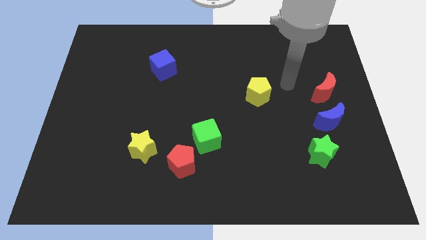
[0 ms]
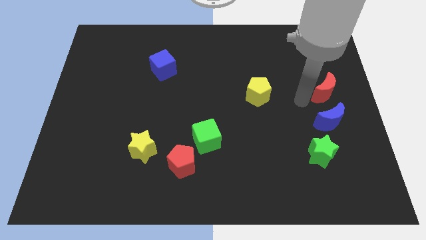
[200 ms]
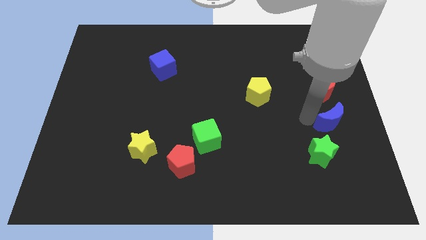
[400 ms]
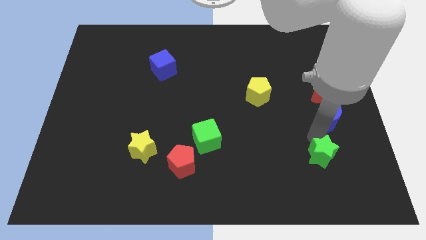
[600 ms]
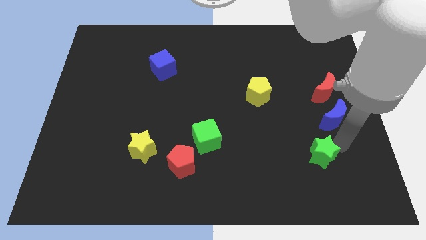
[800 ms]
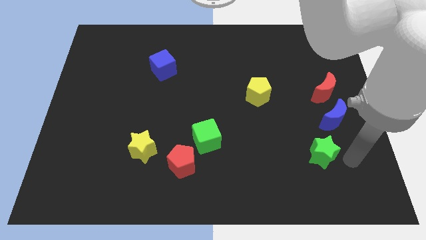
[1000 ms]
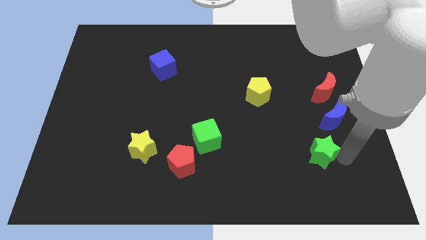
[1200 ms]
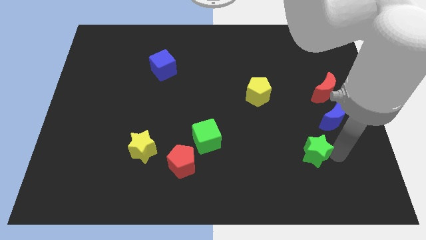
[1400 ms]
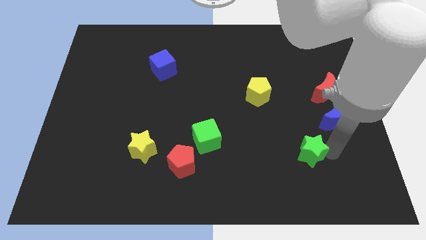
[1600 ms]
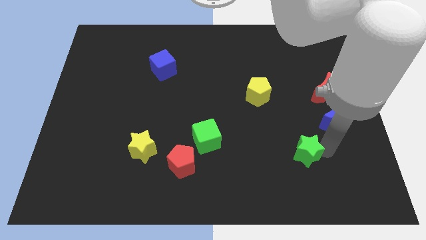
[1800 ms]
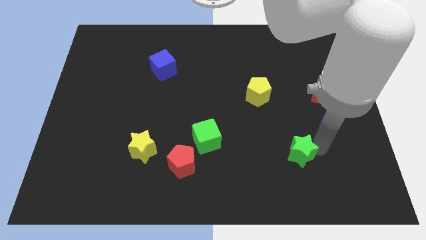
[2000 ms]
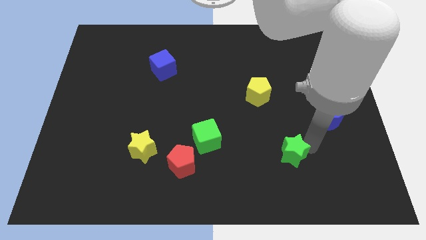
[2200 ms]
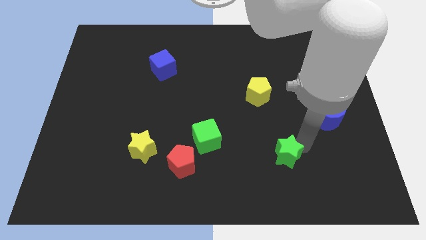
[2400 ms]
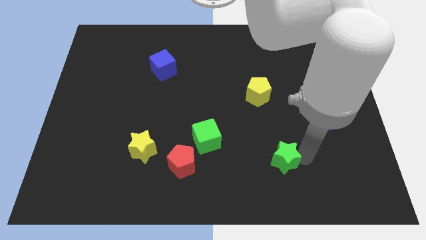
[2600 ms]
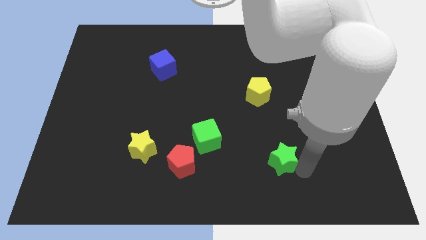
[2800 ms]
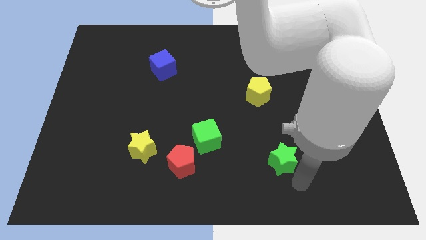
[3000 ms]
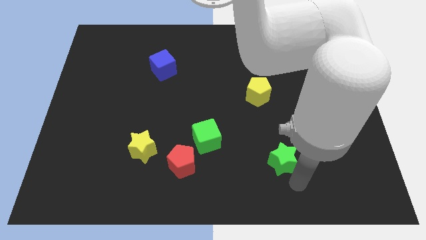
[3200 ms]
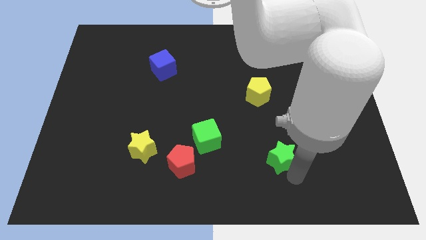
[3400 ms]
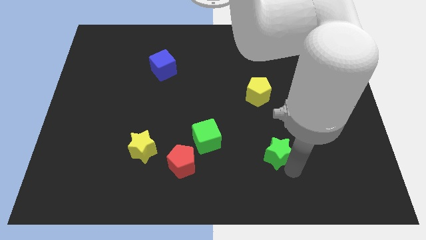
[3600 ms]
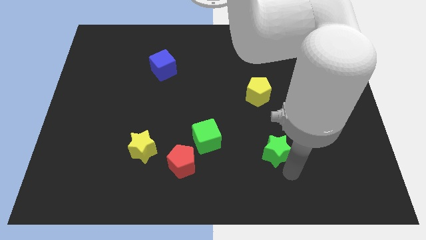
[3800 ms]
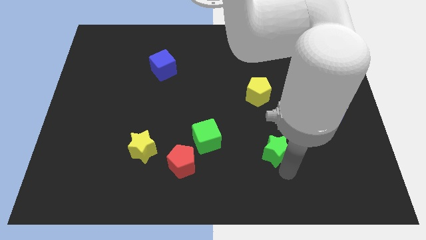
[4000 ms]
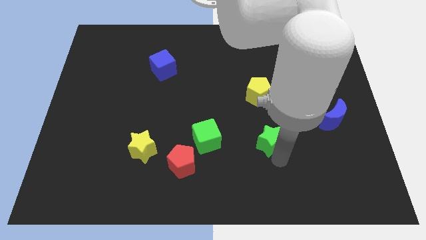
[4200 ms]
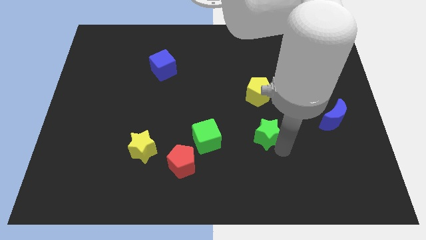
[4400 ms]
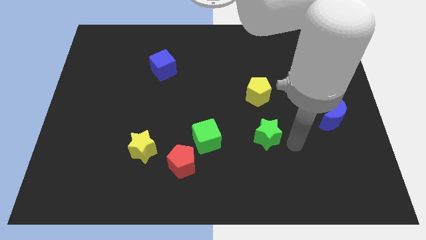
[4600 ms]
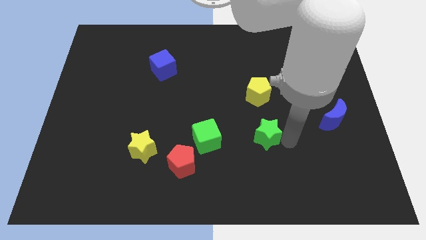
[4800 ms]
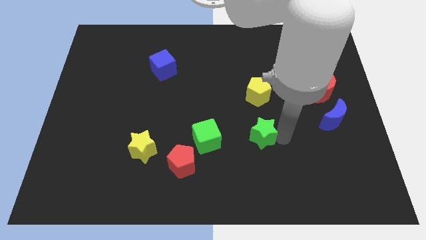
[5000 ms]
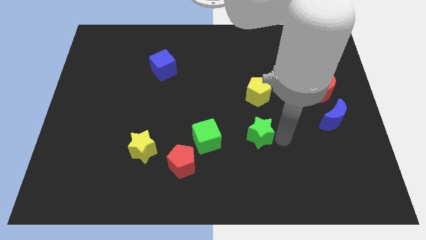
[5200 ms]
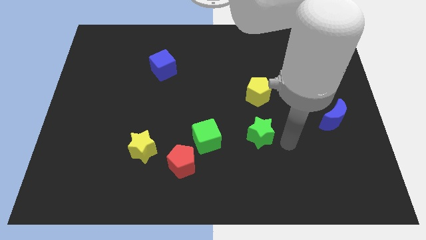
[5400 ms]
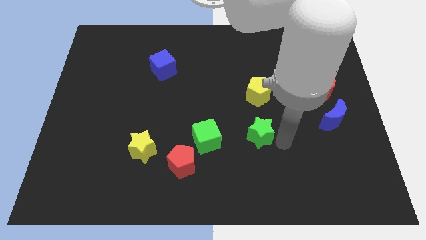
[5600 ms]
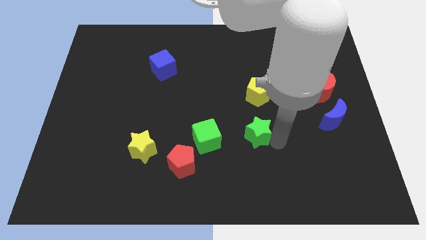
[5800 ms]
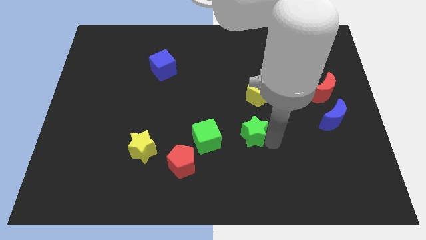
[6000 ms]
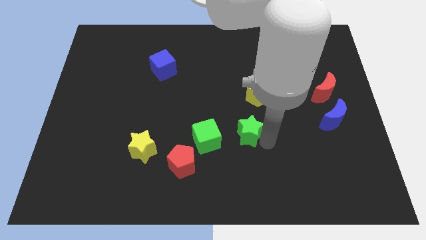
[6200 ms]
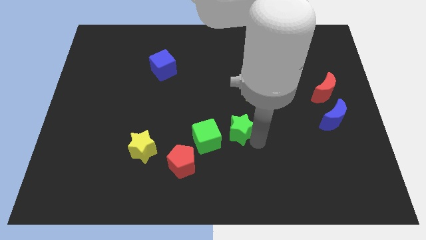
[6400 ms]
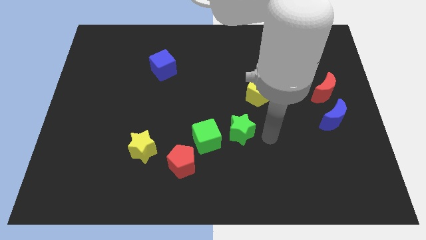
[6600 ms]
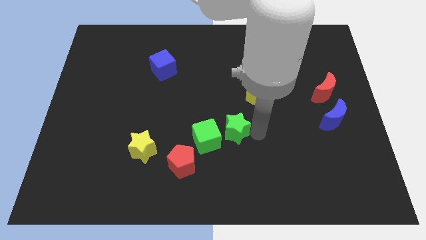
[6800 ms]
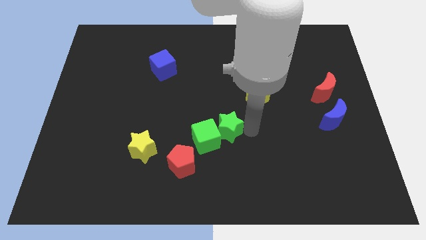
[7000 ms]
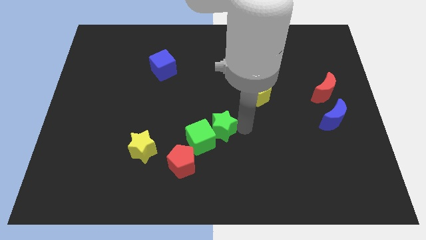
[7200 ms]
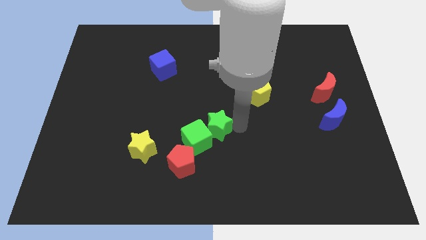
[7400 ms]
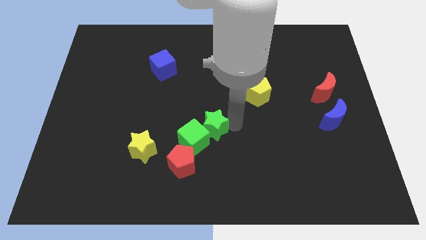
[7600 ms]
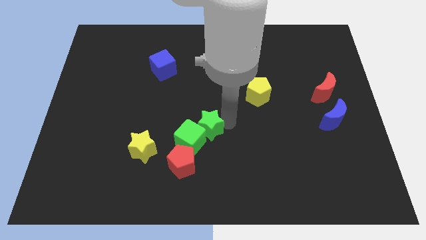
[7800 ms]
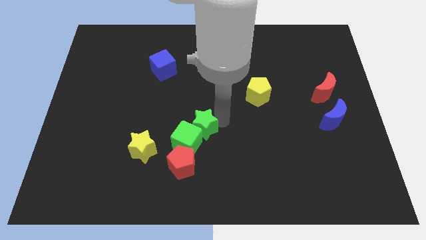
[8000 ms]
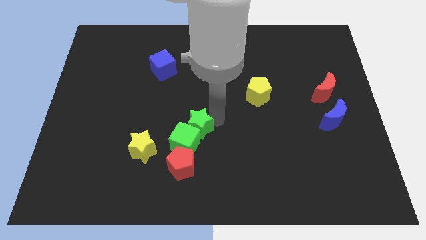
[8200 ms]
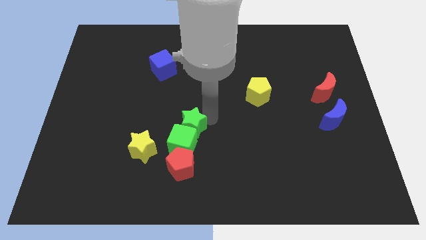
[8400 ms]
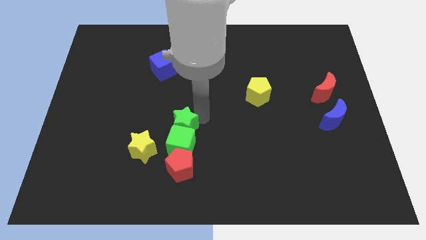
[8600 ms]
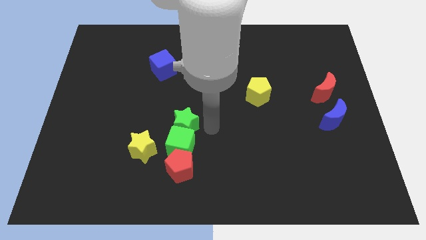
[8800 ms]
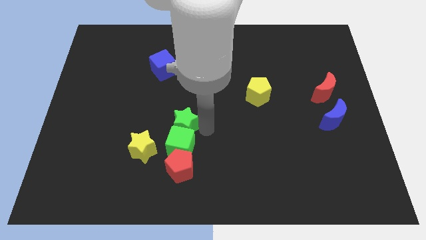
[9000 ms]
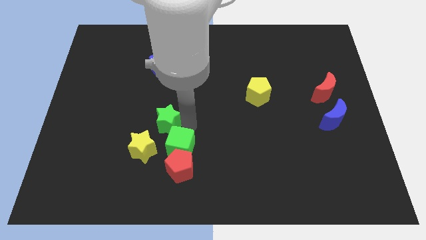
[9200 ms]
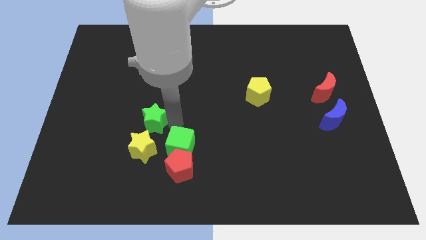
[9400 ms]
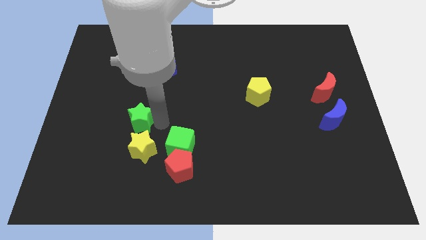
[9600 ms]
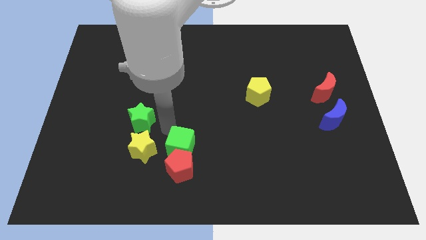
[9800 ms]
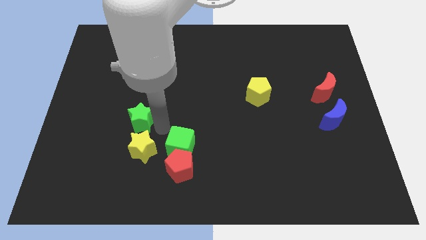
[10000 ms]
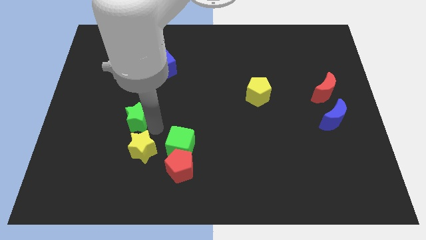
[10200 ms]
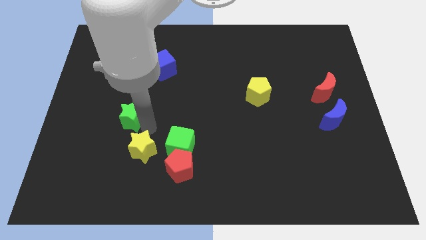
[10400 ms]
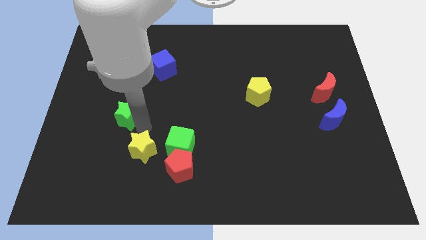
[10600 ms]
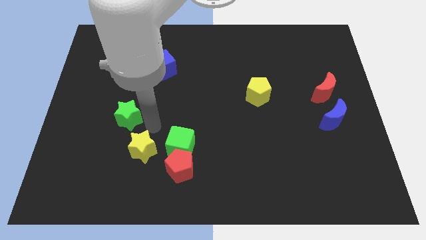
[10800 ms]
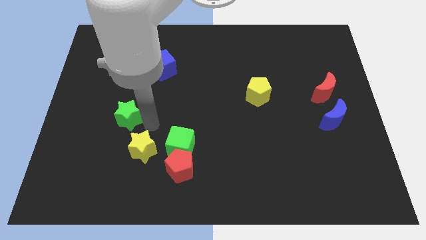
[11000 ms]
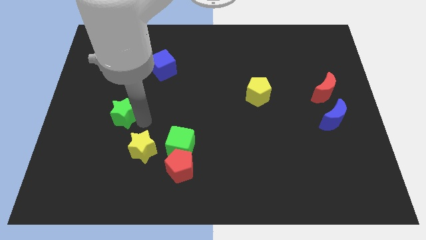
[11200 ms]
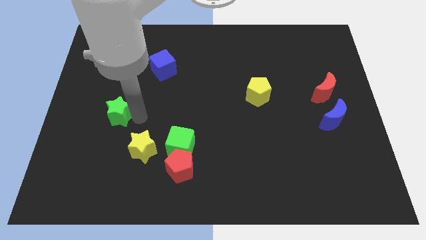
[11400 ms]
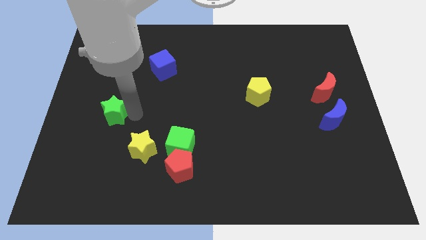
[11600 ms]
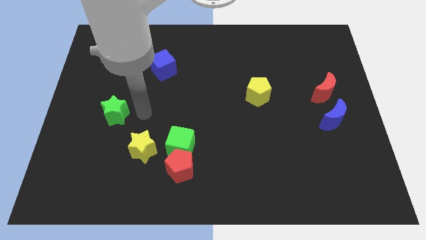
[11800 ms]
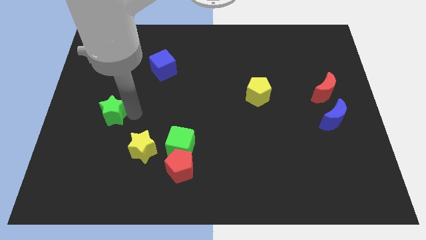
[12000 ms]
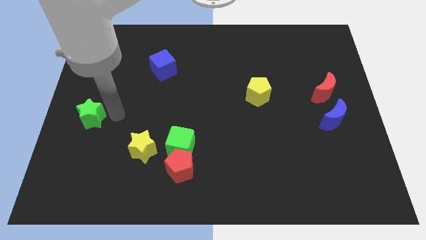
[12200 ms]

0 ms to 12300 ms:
put the green star to the center left
